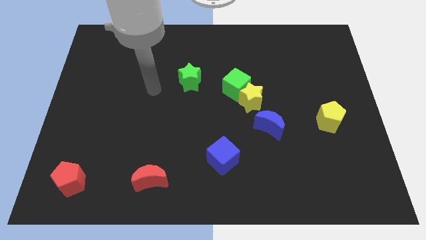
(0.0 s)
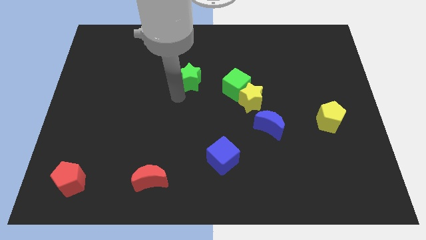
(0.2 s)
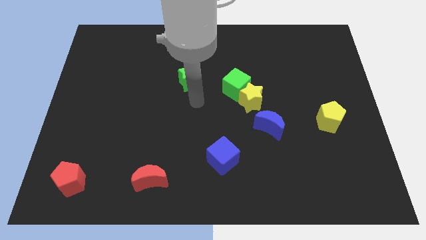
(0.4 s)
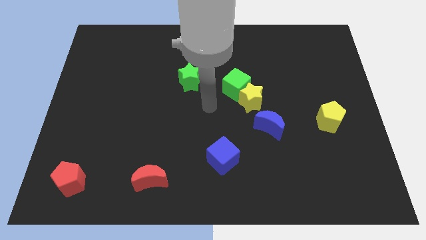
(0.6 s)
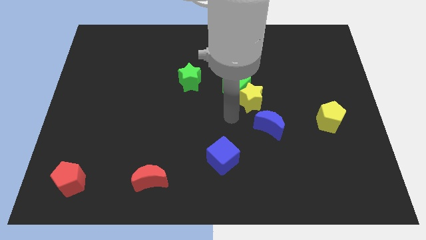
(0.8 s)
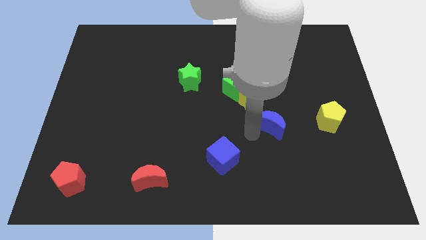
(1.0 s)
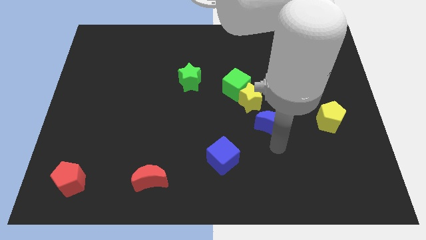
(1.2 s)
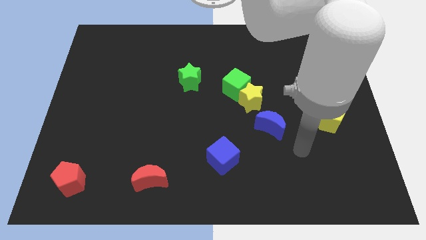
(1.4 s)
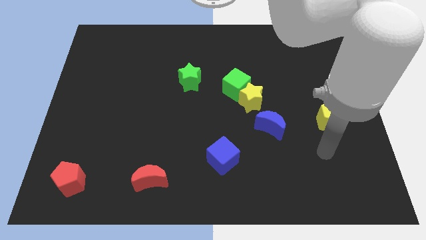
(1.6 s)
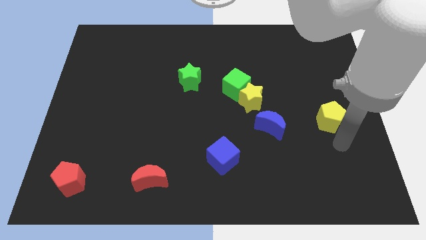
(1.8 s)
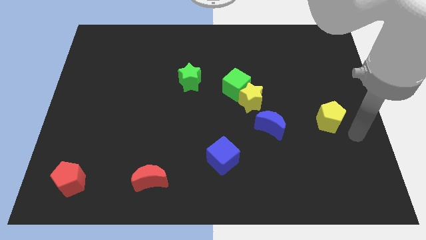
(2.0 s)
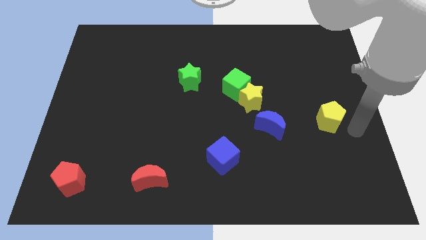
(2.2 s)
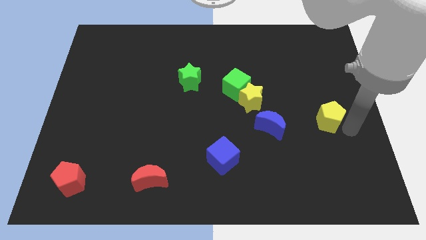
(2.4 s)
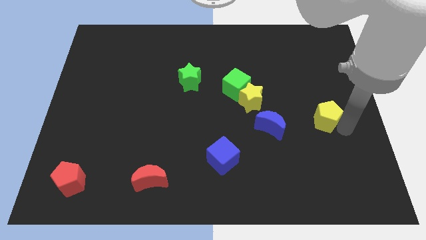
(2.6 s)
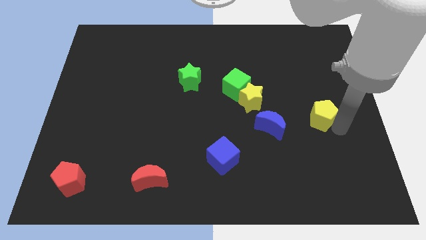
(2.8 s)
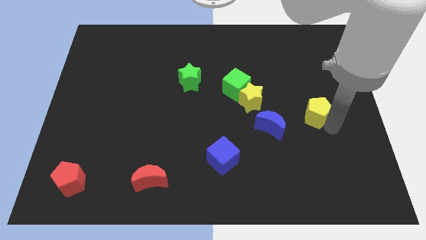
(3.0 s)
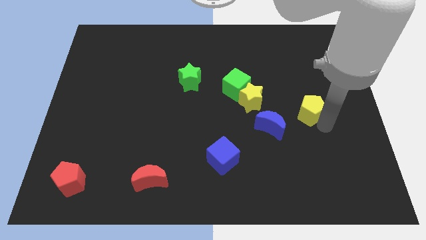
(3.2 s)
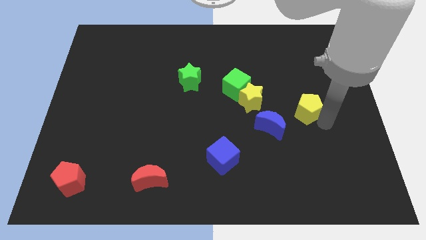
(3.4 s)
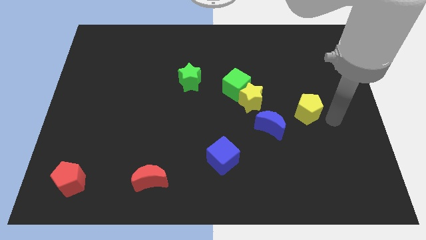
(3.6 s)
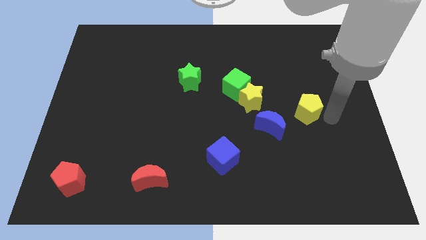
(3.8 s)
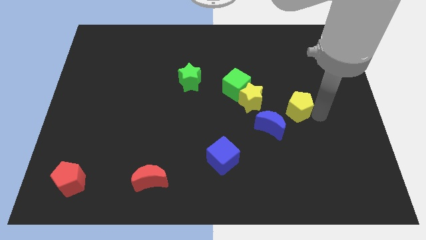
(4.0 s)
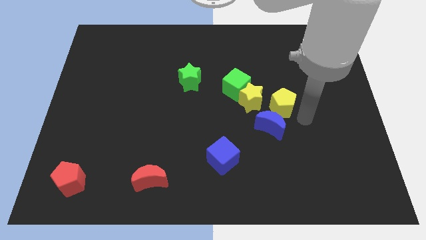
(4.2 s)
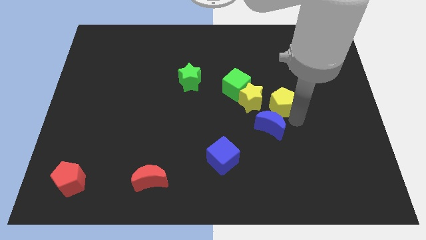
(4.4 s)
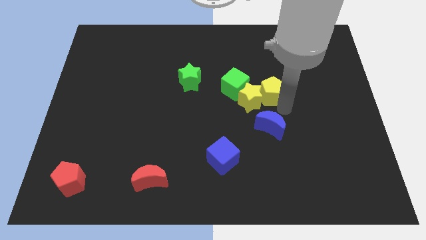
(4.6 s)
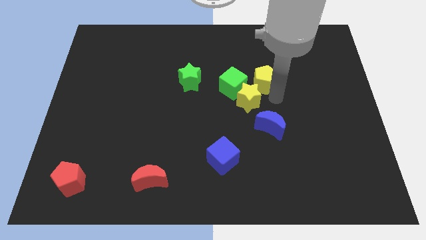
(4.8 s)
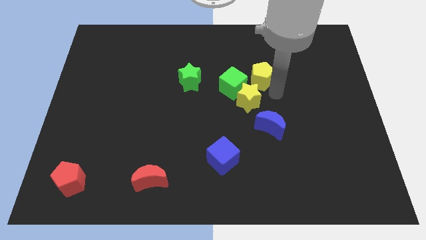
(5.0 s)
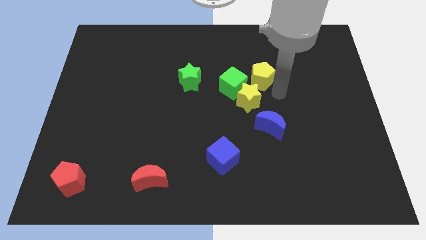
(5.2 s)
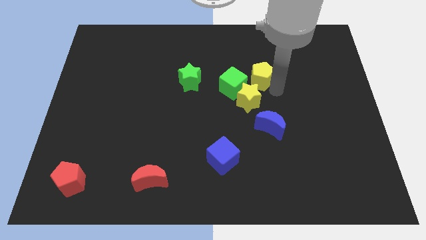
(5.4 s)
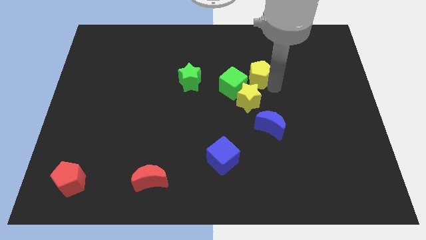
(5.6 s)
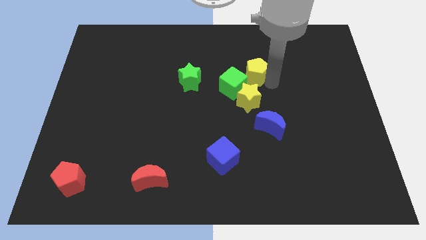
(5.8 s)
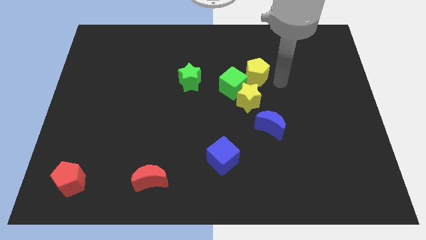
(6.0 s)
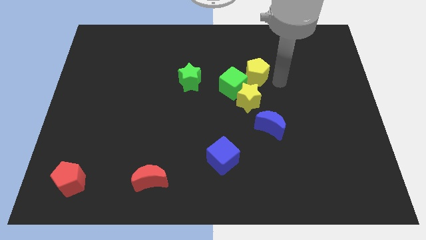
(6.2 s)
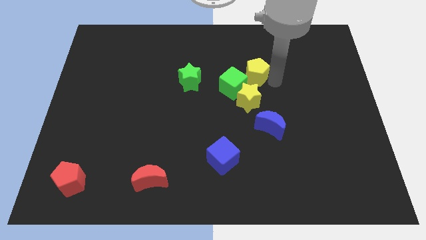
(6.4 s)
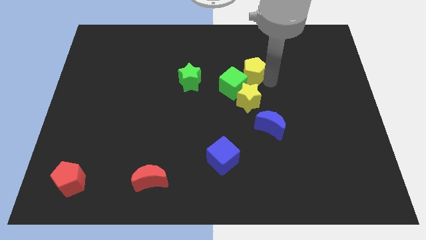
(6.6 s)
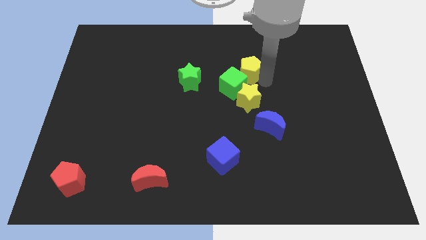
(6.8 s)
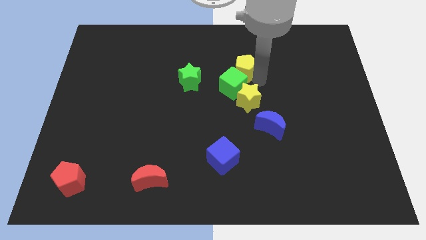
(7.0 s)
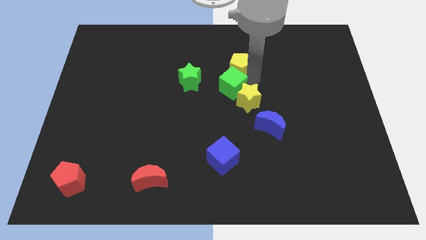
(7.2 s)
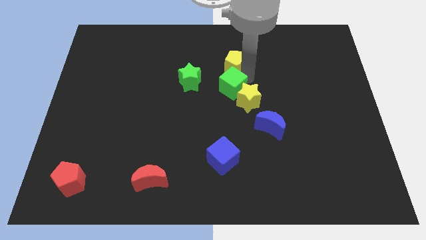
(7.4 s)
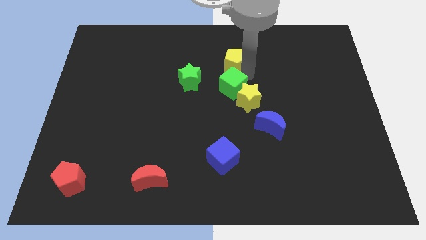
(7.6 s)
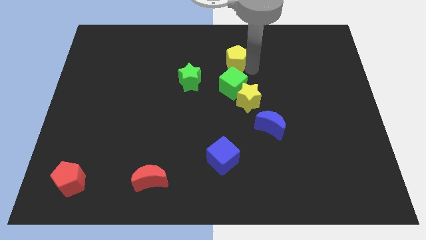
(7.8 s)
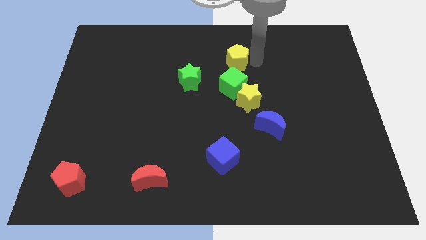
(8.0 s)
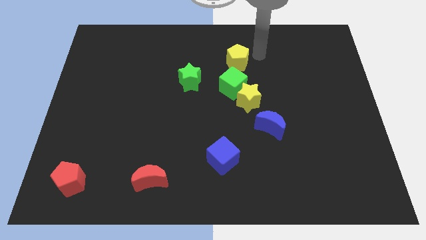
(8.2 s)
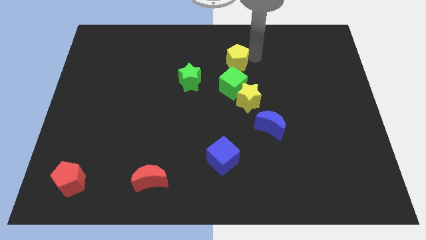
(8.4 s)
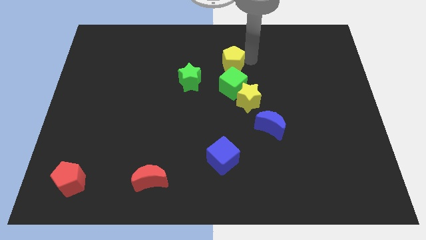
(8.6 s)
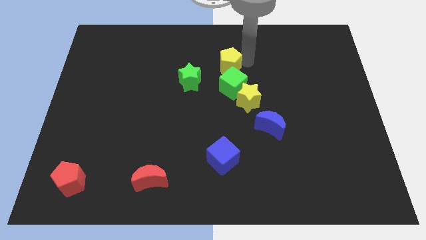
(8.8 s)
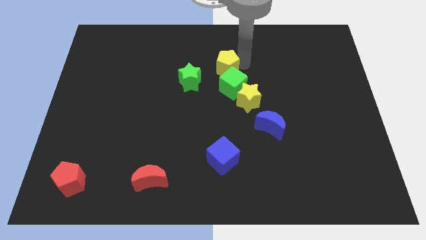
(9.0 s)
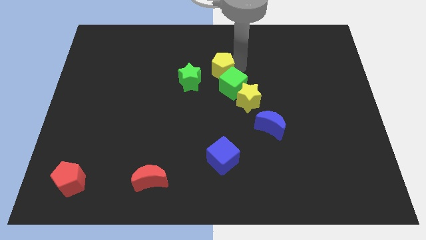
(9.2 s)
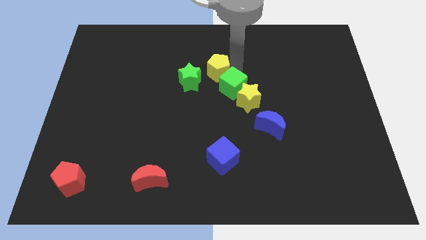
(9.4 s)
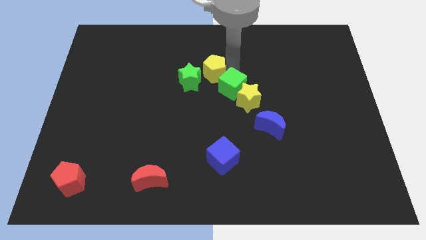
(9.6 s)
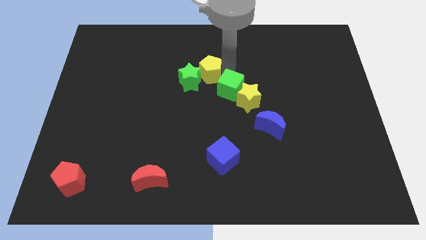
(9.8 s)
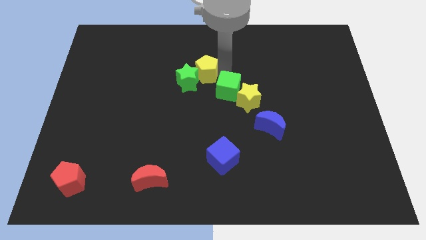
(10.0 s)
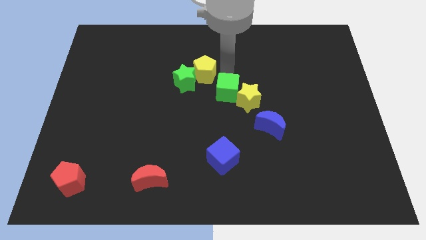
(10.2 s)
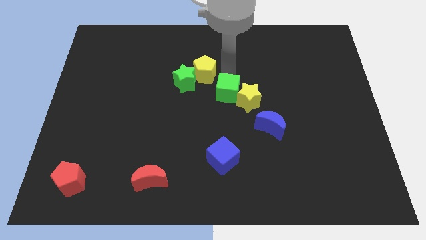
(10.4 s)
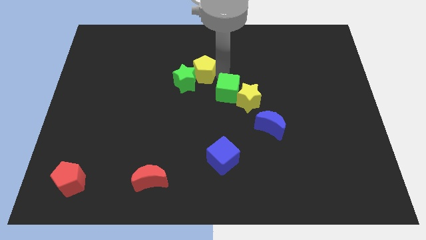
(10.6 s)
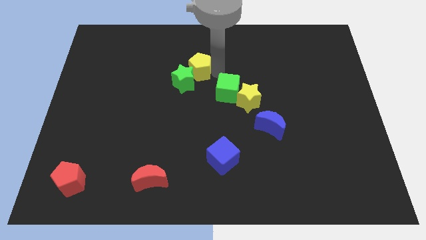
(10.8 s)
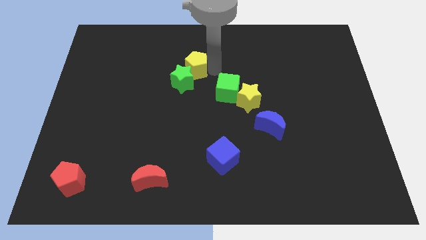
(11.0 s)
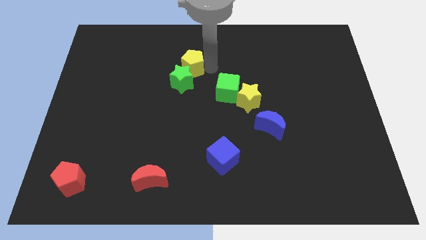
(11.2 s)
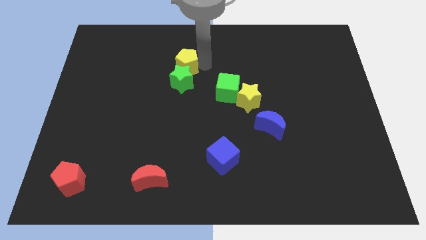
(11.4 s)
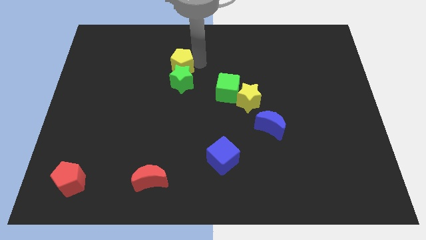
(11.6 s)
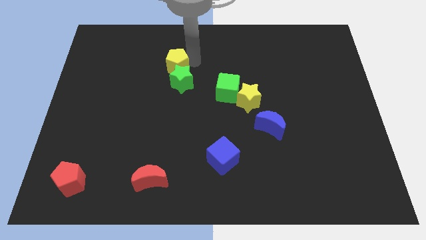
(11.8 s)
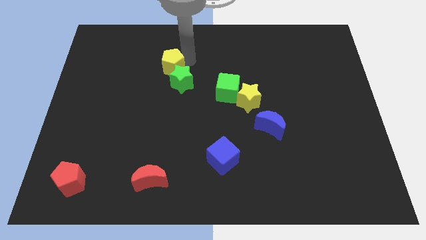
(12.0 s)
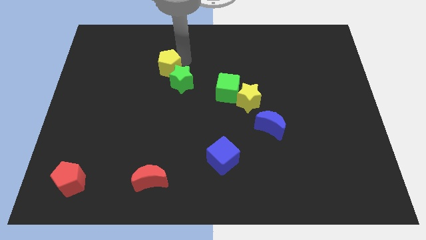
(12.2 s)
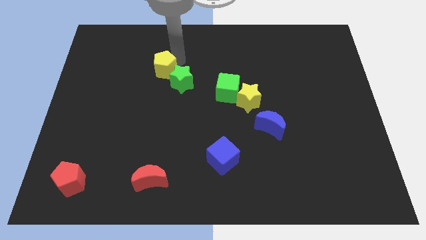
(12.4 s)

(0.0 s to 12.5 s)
slide the yellow pentagon just left of the green star

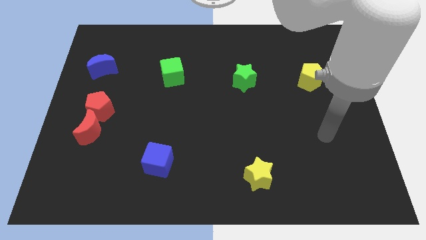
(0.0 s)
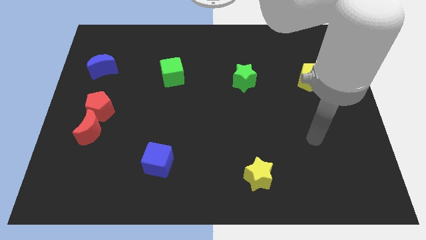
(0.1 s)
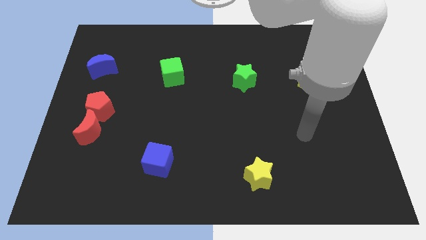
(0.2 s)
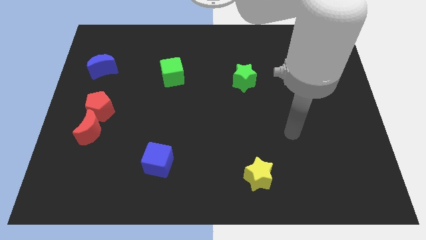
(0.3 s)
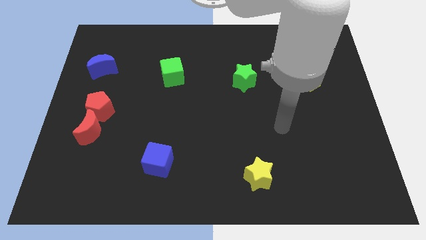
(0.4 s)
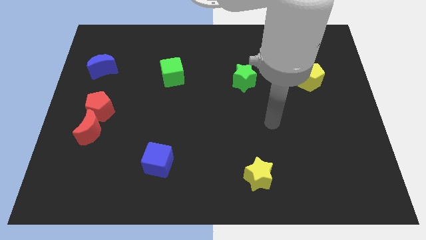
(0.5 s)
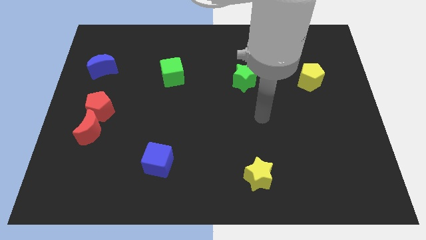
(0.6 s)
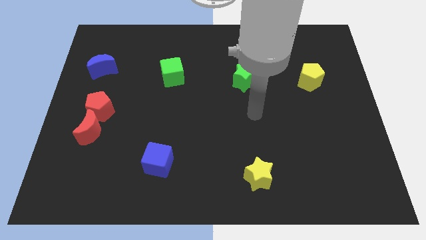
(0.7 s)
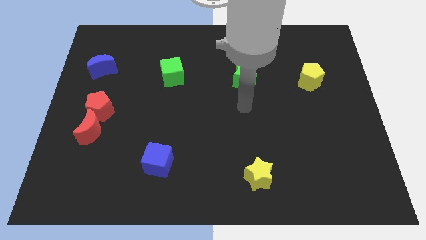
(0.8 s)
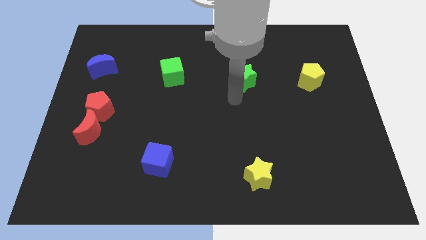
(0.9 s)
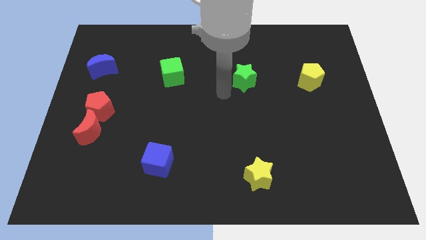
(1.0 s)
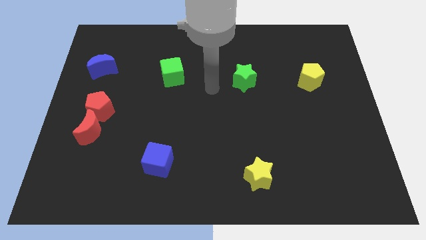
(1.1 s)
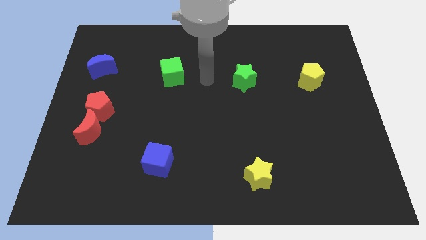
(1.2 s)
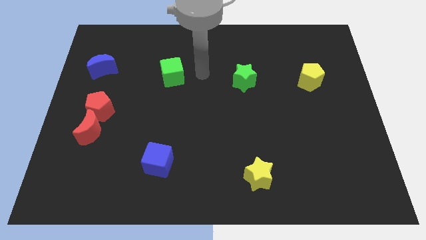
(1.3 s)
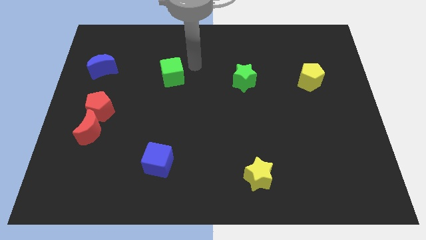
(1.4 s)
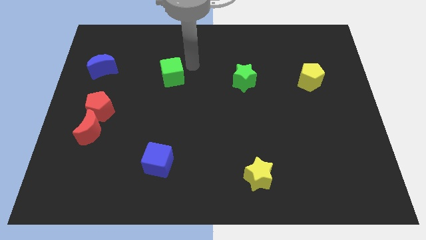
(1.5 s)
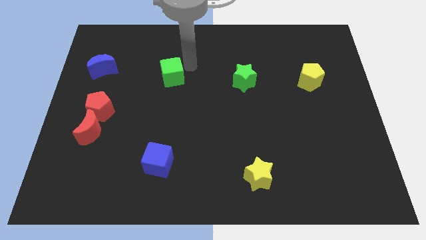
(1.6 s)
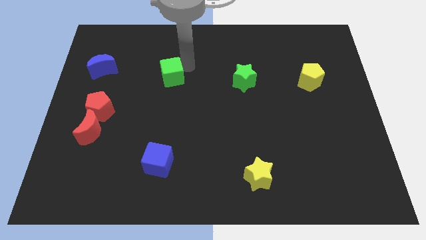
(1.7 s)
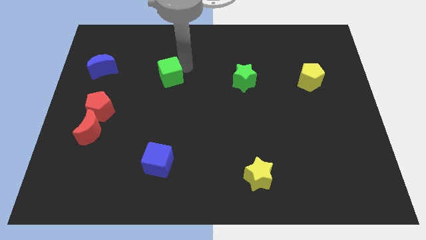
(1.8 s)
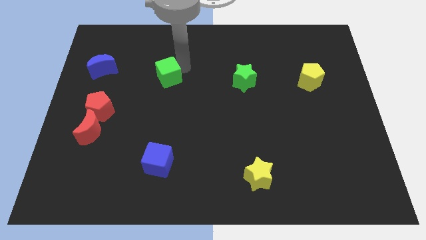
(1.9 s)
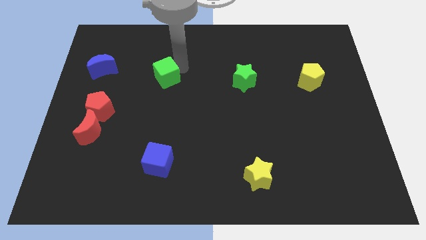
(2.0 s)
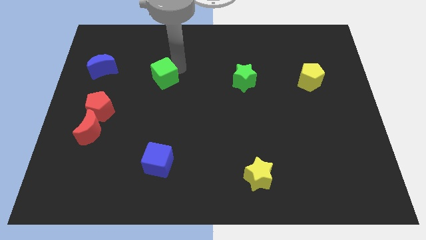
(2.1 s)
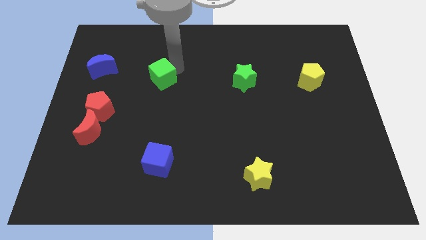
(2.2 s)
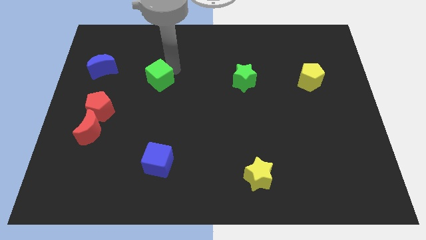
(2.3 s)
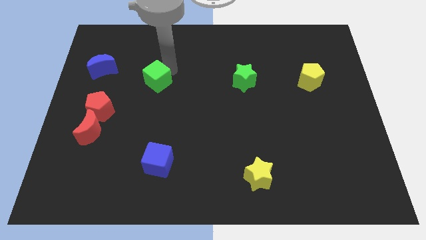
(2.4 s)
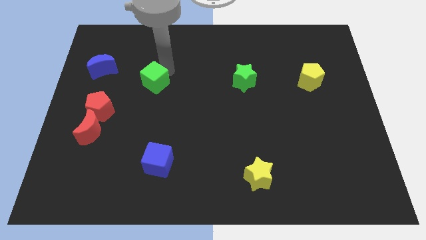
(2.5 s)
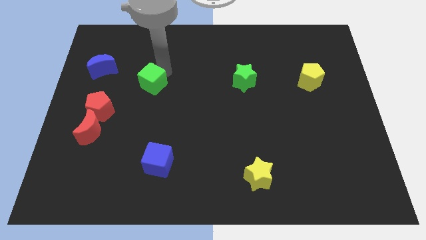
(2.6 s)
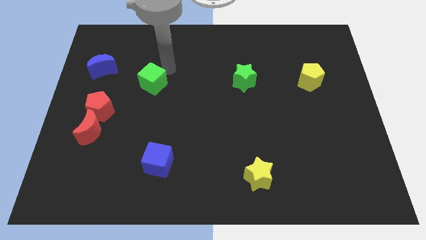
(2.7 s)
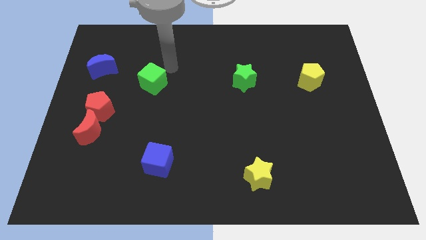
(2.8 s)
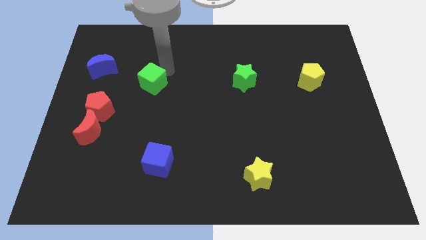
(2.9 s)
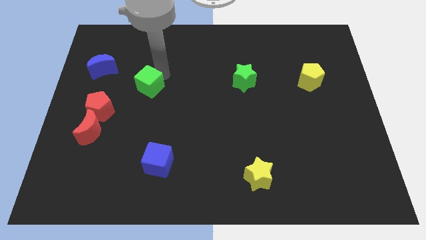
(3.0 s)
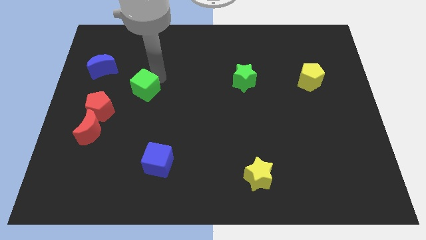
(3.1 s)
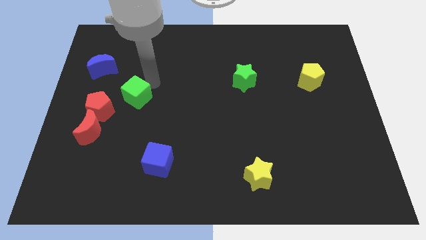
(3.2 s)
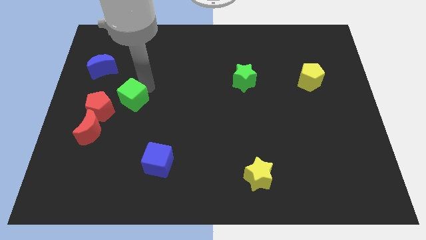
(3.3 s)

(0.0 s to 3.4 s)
put the green cube to the top right of the red moon
